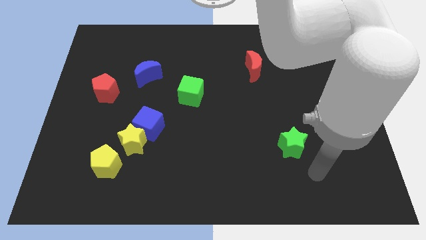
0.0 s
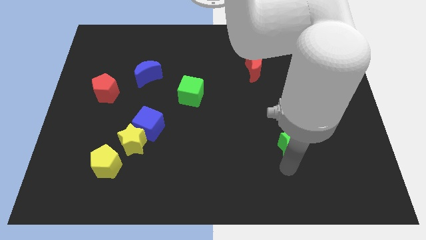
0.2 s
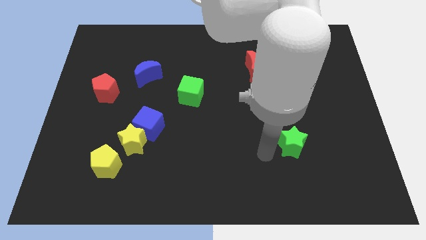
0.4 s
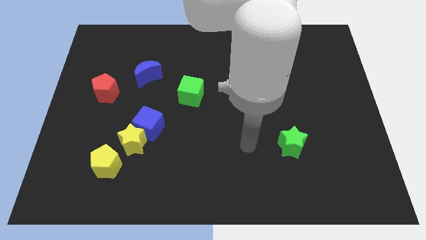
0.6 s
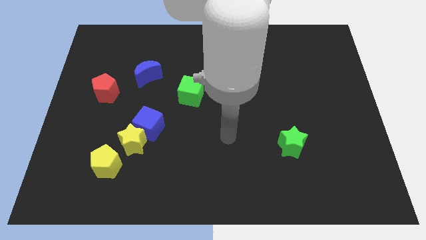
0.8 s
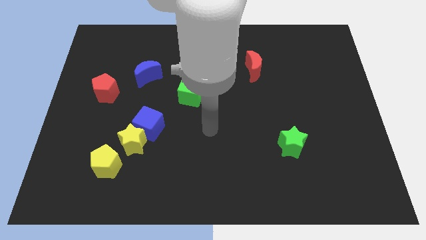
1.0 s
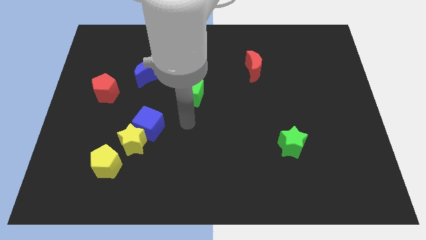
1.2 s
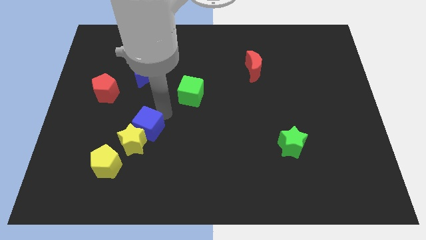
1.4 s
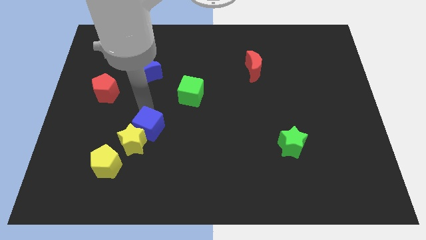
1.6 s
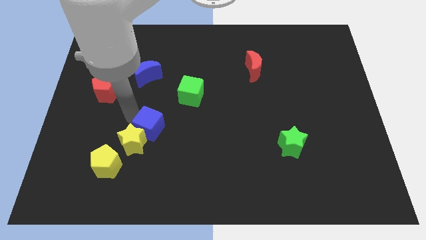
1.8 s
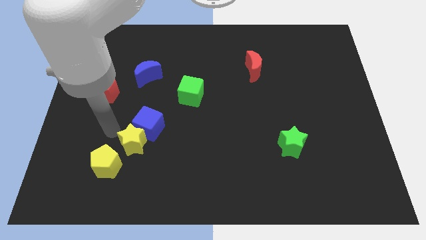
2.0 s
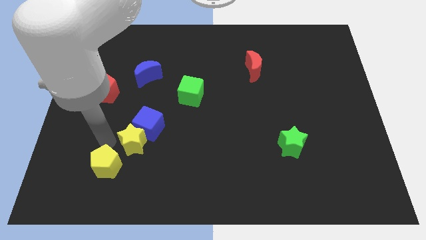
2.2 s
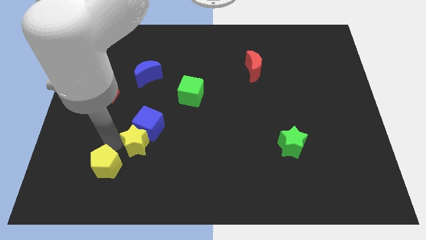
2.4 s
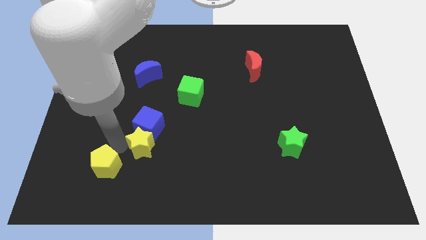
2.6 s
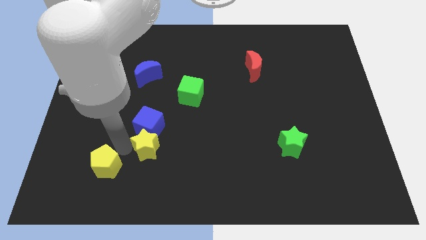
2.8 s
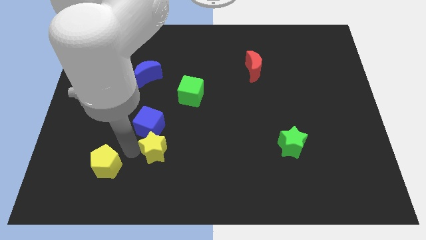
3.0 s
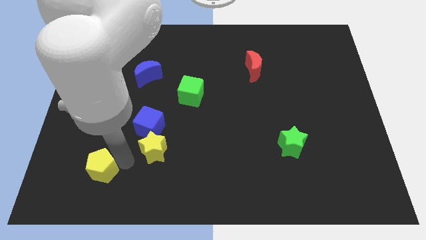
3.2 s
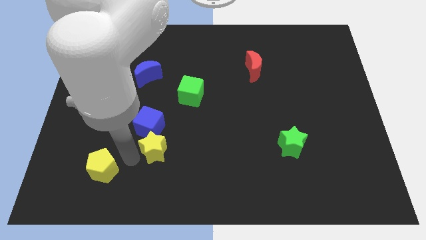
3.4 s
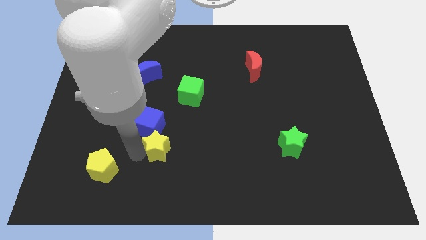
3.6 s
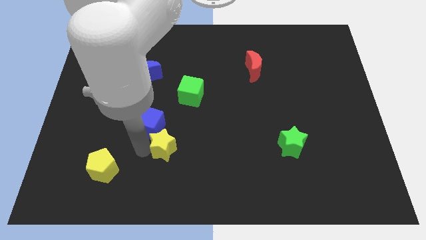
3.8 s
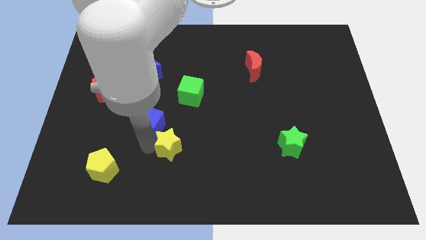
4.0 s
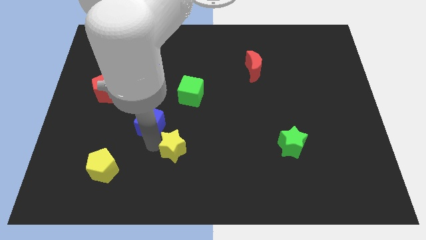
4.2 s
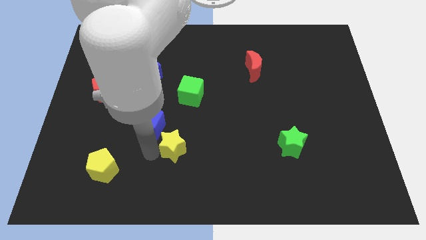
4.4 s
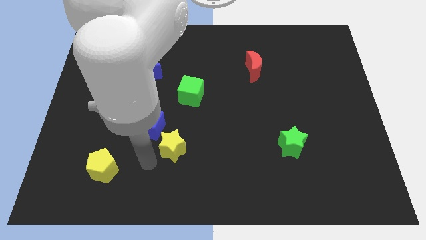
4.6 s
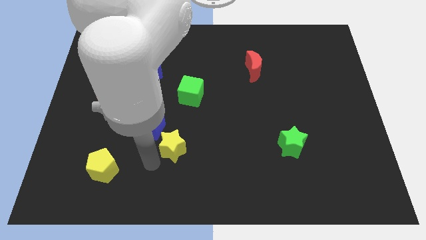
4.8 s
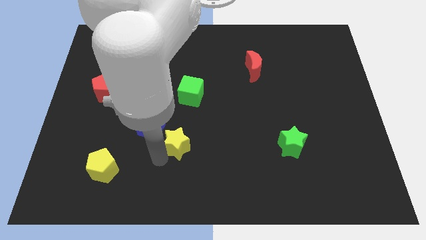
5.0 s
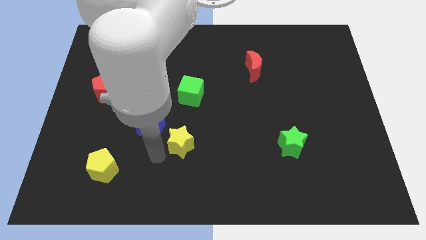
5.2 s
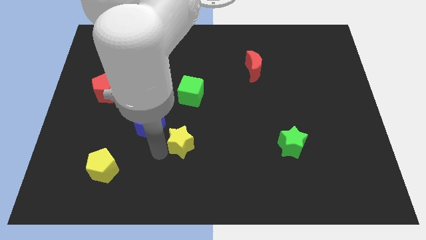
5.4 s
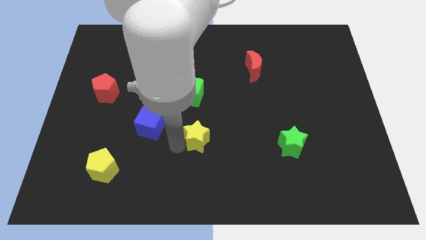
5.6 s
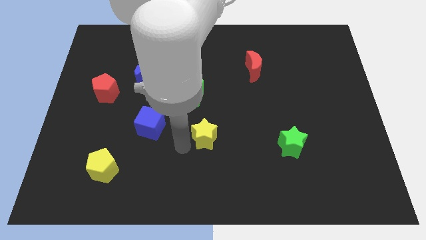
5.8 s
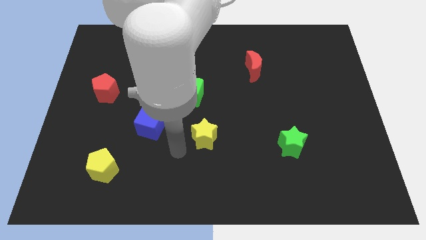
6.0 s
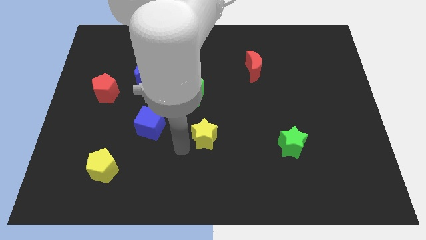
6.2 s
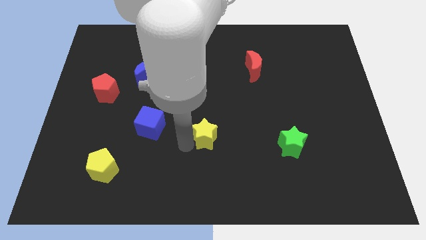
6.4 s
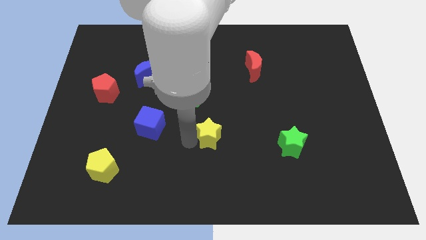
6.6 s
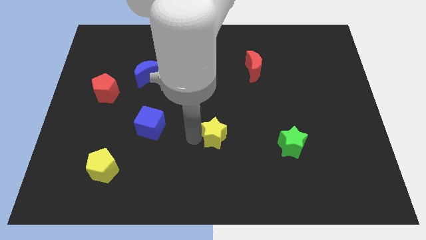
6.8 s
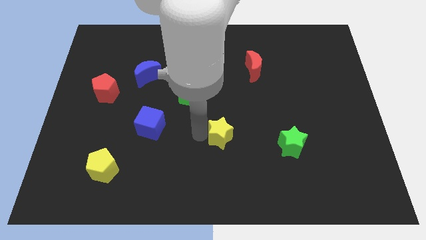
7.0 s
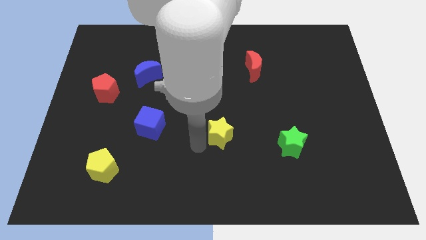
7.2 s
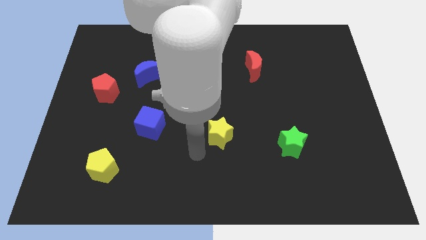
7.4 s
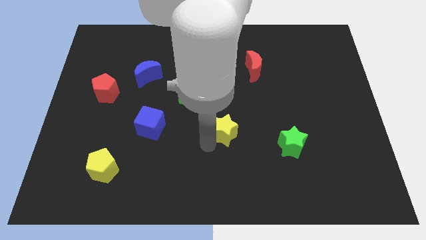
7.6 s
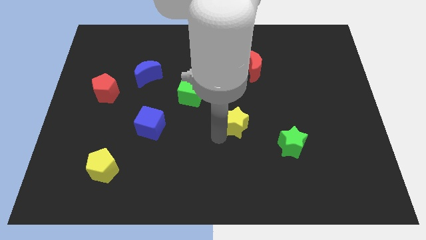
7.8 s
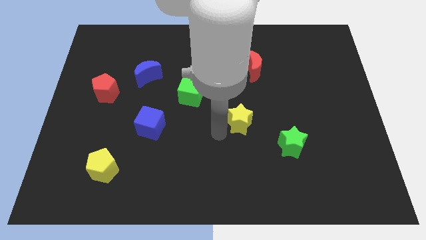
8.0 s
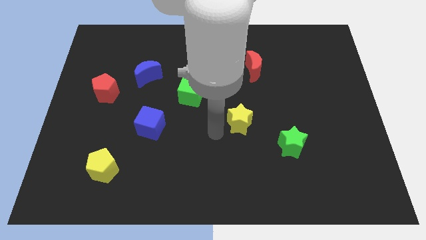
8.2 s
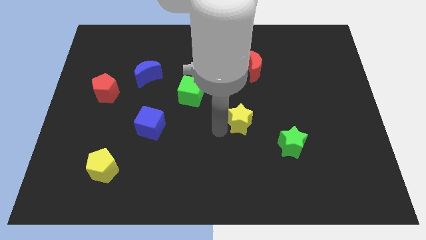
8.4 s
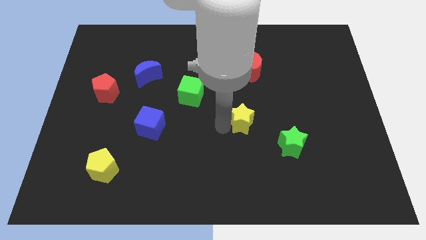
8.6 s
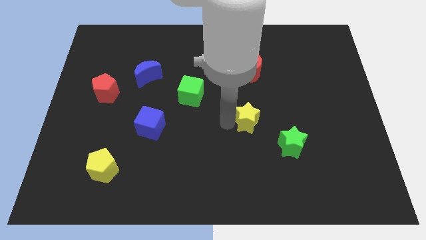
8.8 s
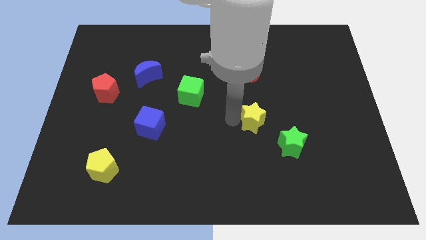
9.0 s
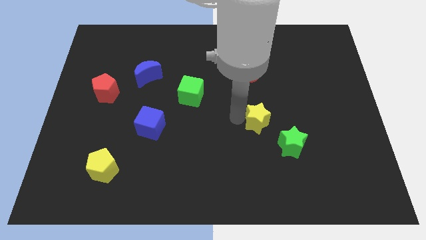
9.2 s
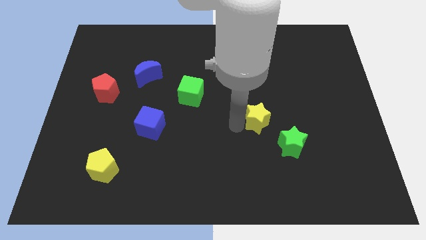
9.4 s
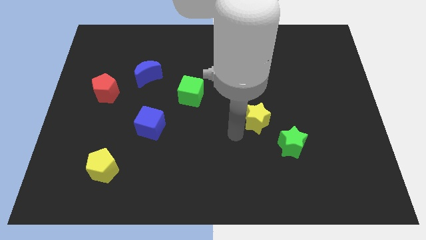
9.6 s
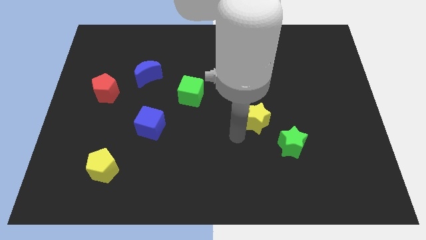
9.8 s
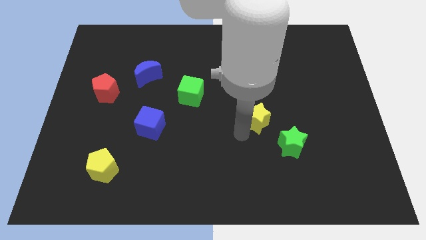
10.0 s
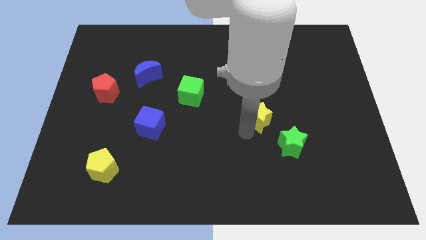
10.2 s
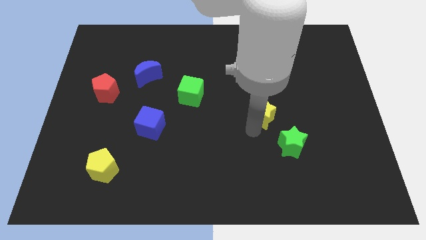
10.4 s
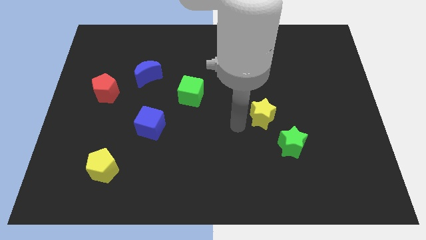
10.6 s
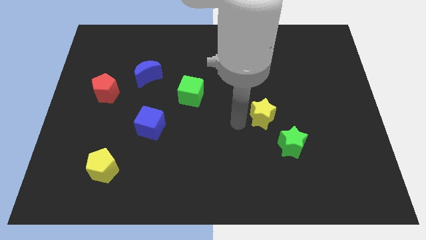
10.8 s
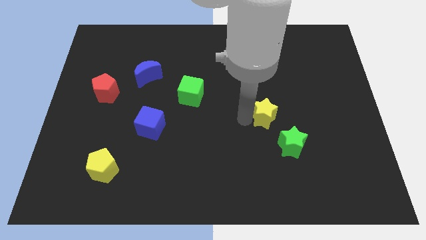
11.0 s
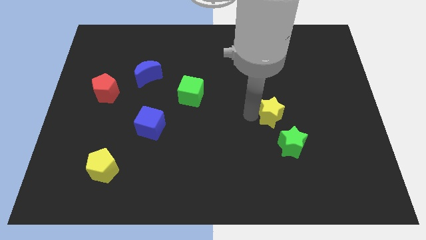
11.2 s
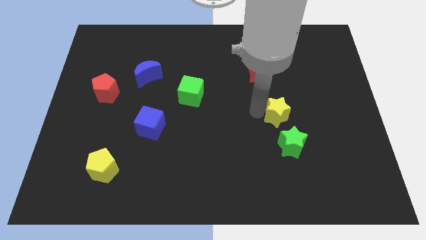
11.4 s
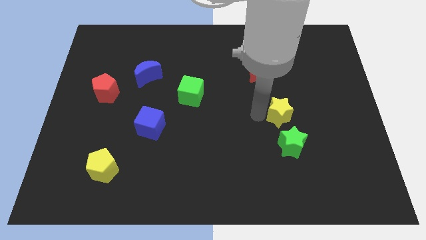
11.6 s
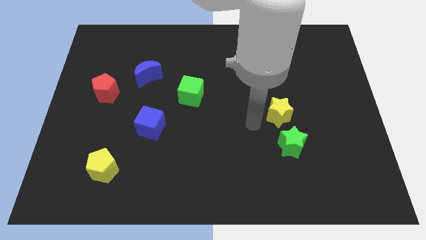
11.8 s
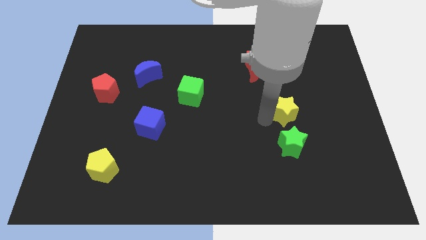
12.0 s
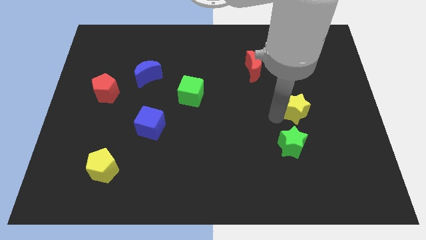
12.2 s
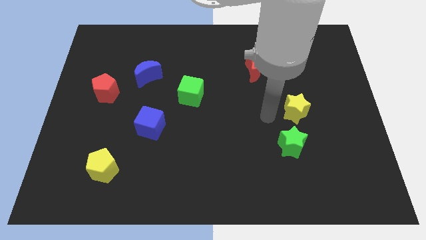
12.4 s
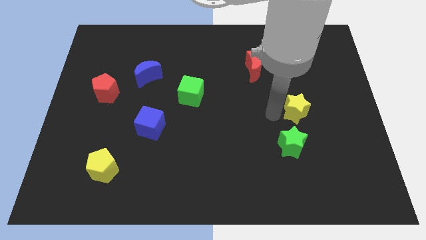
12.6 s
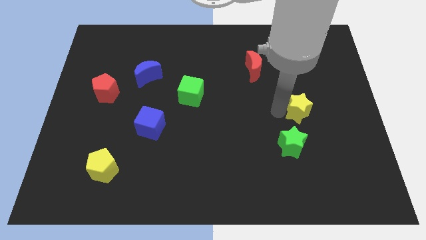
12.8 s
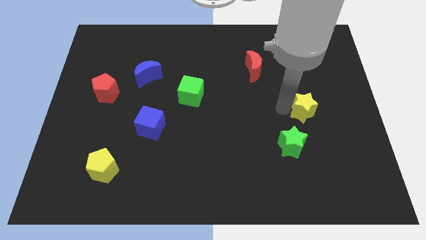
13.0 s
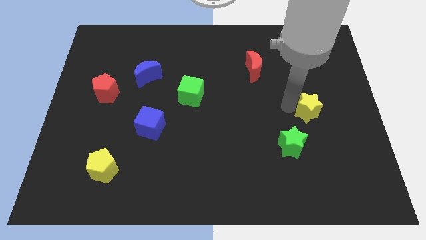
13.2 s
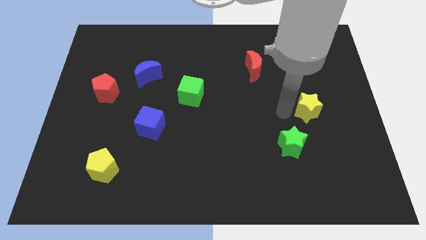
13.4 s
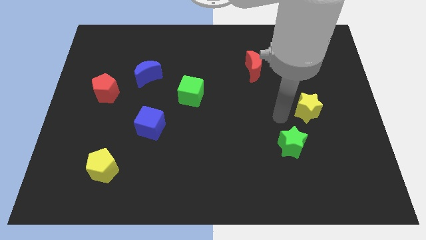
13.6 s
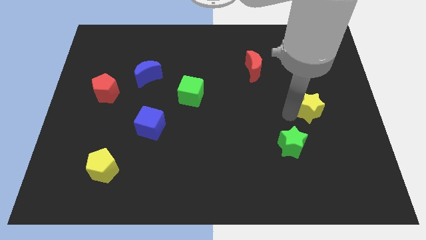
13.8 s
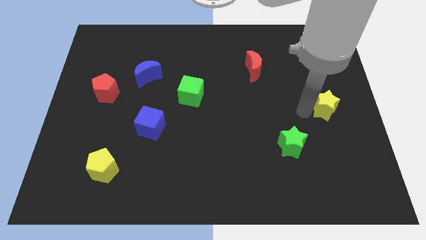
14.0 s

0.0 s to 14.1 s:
slide the yellow star to the right side
